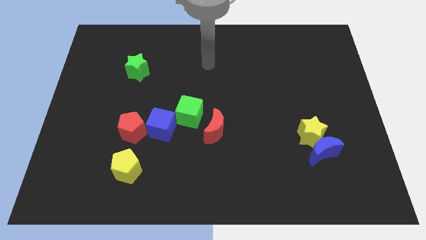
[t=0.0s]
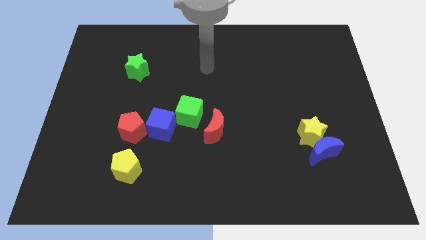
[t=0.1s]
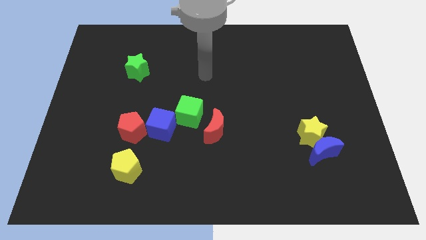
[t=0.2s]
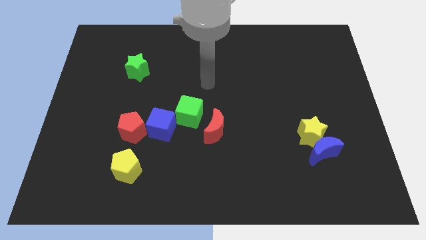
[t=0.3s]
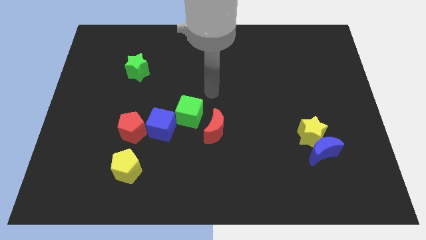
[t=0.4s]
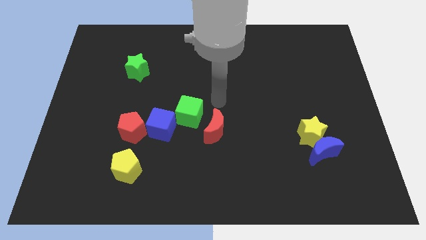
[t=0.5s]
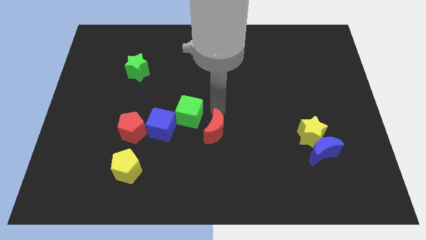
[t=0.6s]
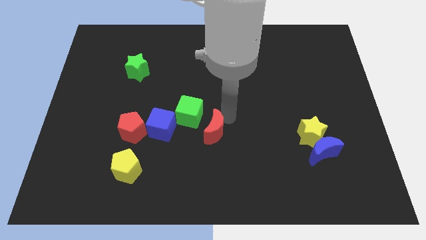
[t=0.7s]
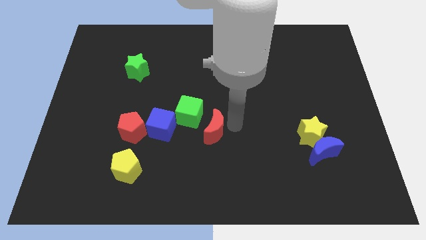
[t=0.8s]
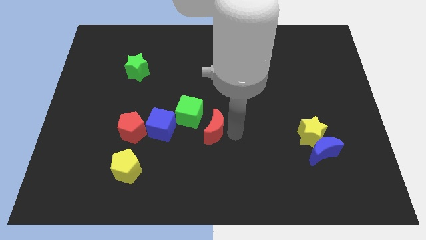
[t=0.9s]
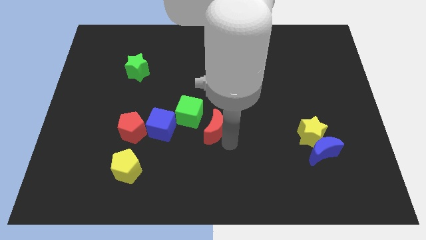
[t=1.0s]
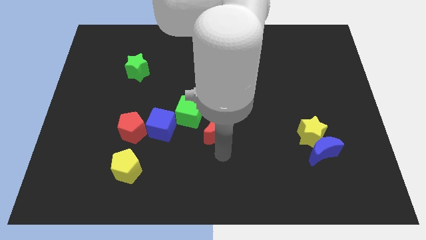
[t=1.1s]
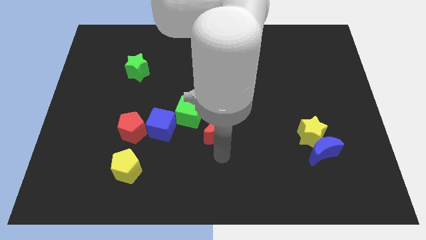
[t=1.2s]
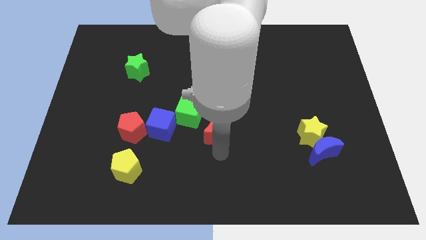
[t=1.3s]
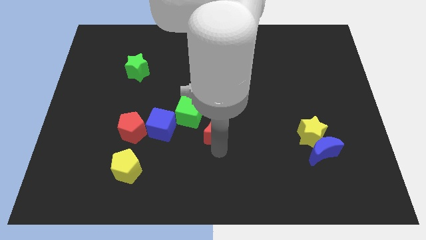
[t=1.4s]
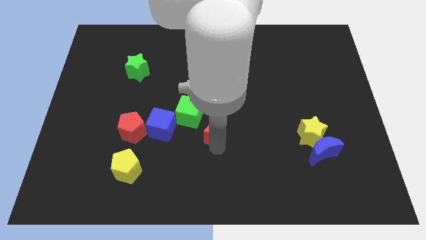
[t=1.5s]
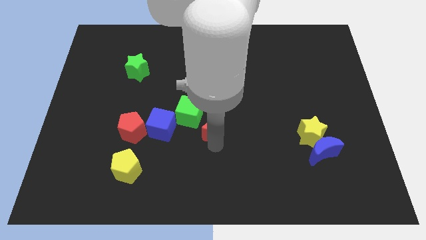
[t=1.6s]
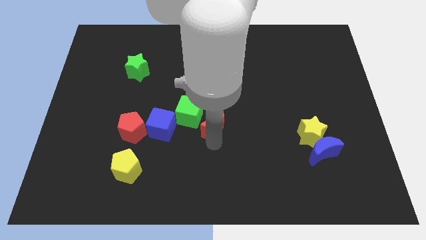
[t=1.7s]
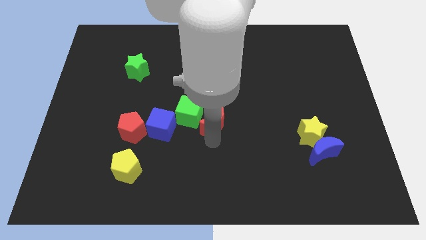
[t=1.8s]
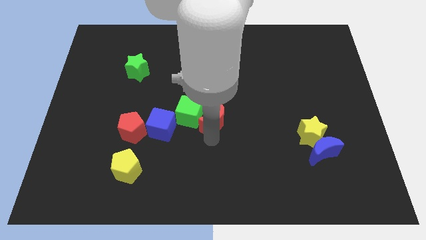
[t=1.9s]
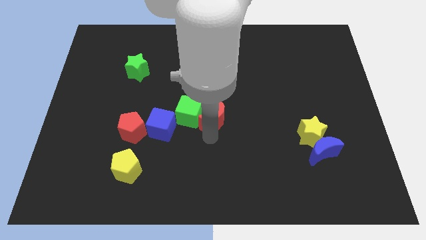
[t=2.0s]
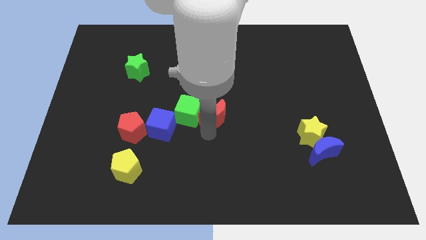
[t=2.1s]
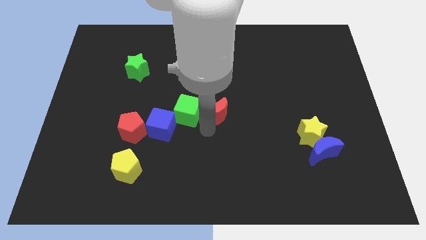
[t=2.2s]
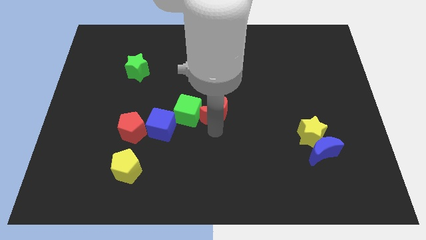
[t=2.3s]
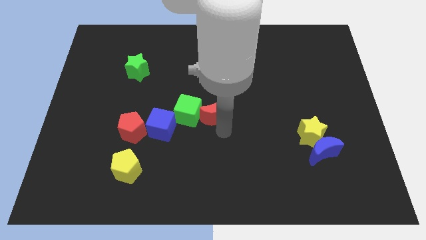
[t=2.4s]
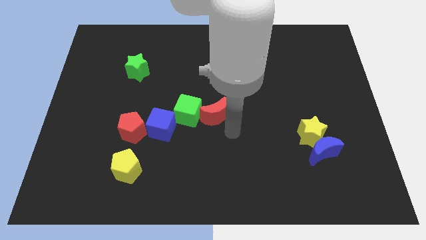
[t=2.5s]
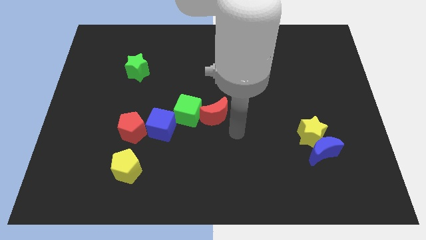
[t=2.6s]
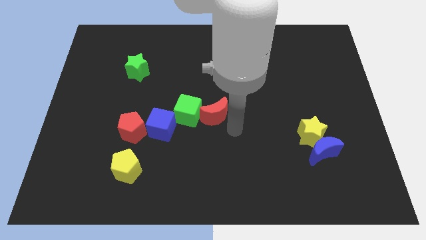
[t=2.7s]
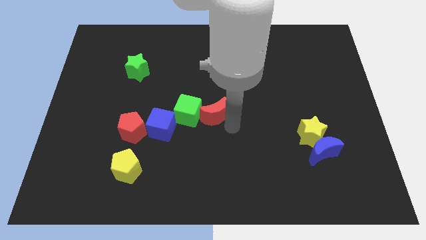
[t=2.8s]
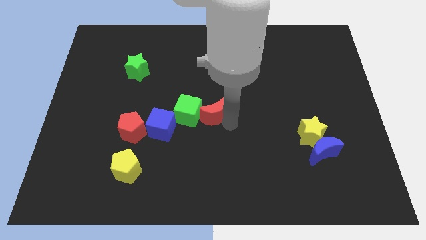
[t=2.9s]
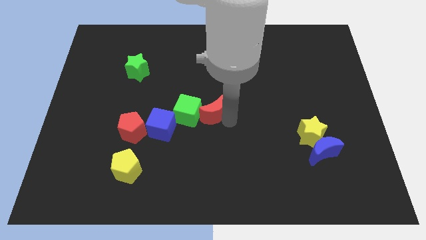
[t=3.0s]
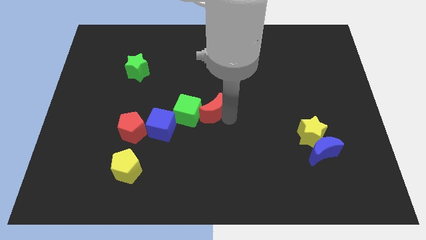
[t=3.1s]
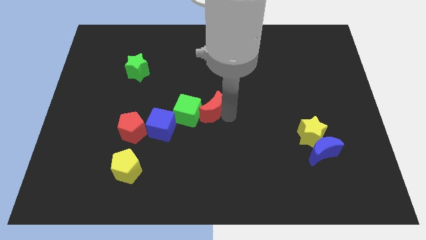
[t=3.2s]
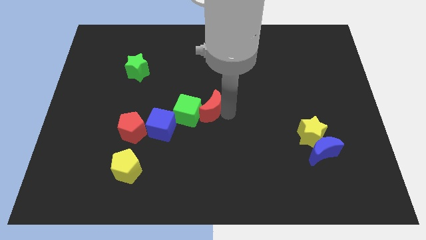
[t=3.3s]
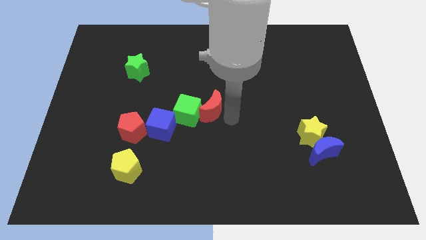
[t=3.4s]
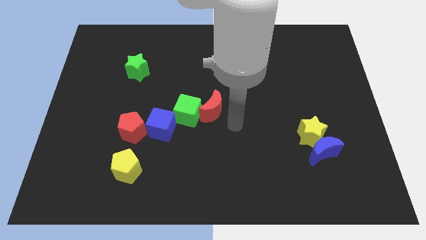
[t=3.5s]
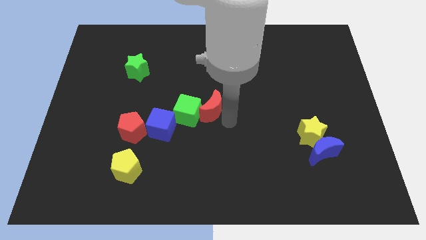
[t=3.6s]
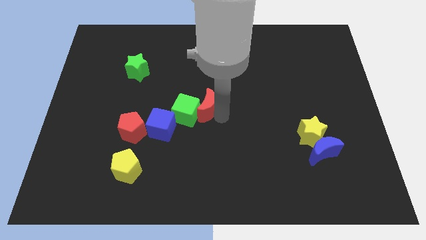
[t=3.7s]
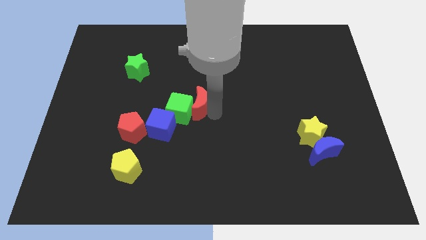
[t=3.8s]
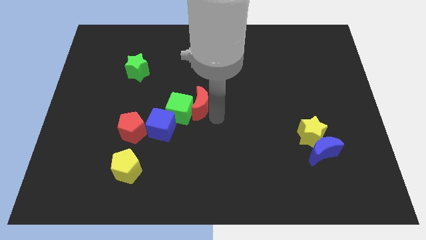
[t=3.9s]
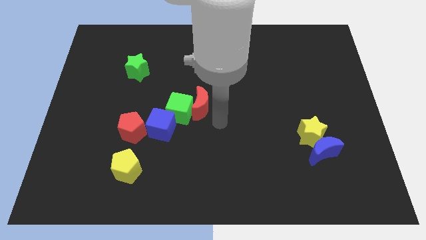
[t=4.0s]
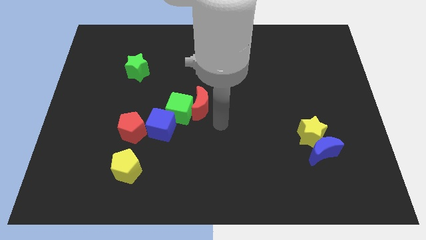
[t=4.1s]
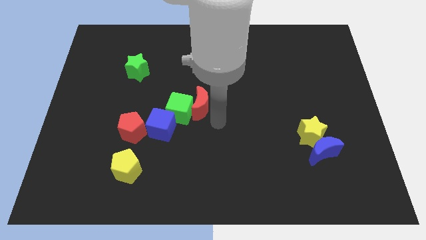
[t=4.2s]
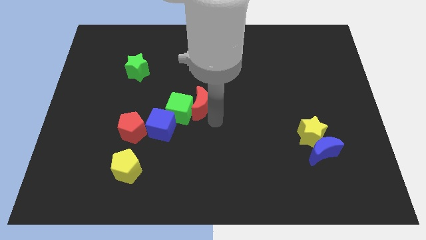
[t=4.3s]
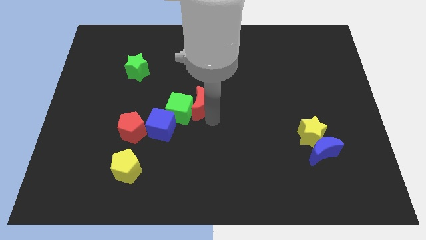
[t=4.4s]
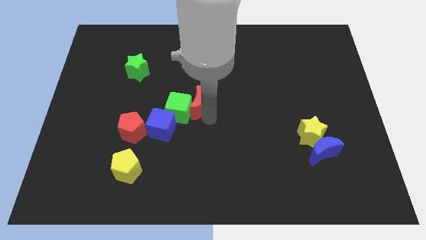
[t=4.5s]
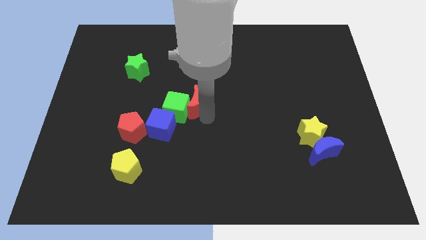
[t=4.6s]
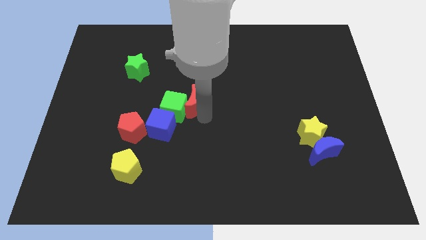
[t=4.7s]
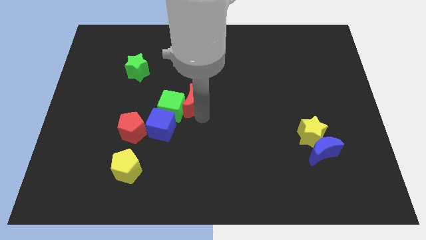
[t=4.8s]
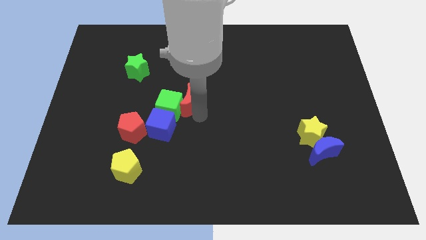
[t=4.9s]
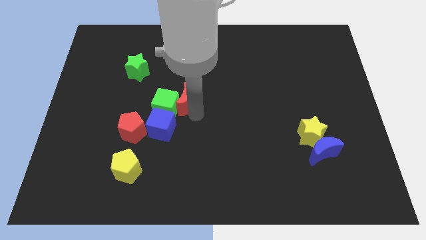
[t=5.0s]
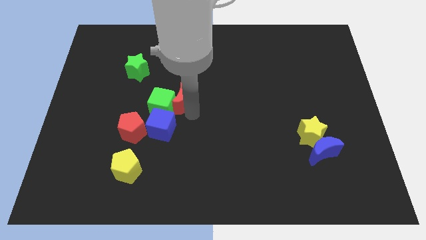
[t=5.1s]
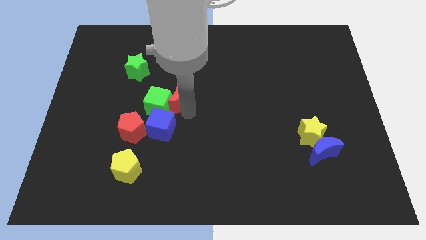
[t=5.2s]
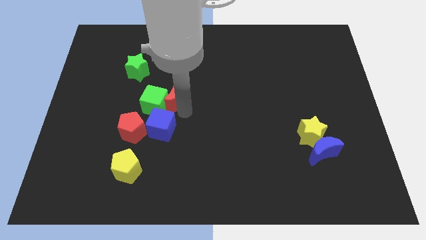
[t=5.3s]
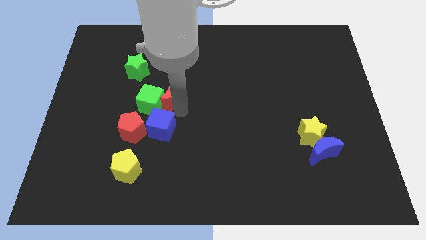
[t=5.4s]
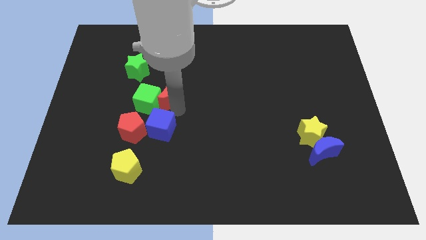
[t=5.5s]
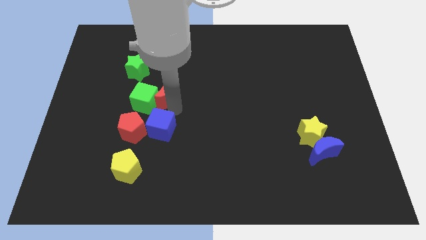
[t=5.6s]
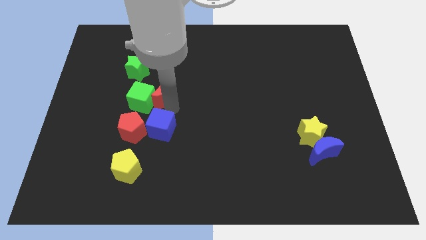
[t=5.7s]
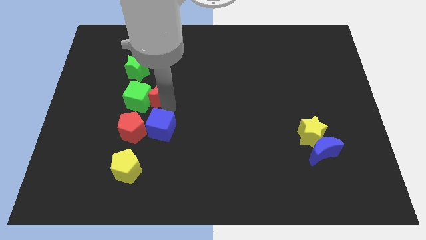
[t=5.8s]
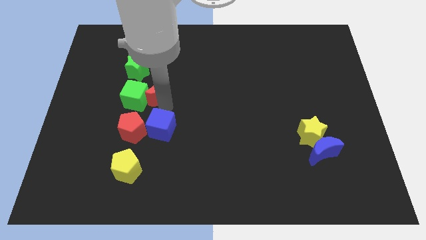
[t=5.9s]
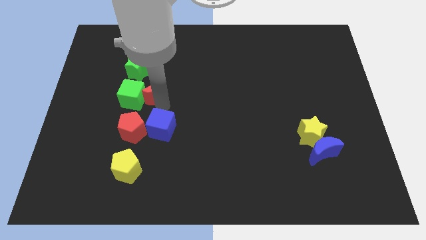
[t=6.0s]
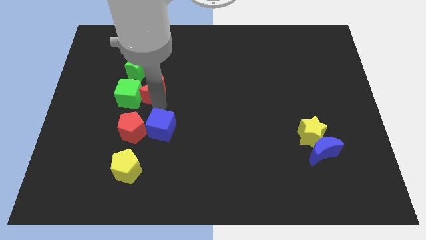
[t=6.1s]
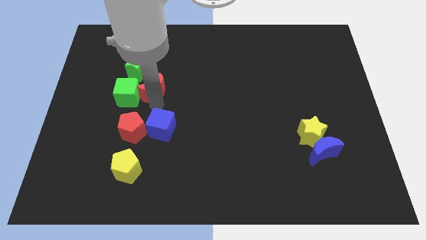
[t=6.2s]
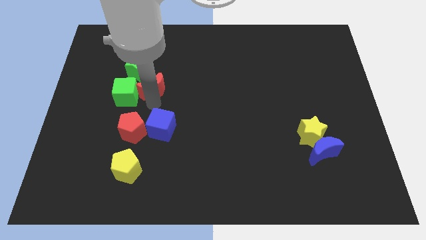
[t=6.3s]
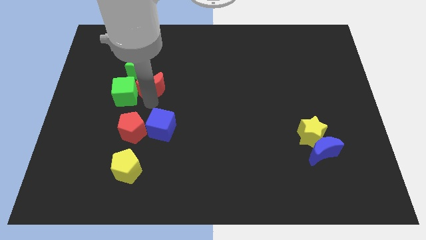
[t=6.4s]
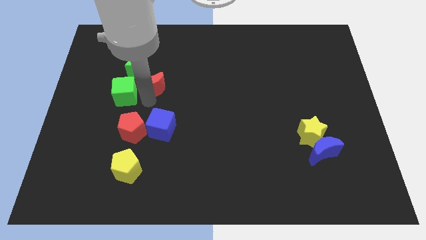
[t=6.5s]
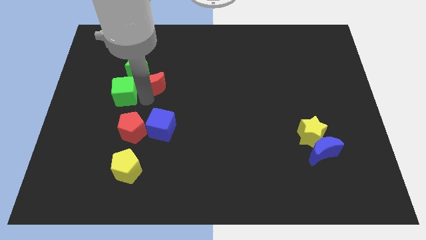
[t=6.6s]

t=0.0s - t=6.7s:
move the red moon upwards and left diagonally

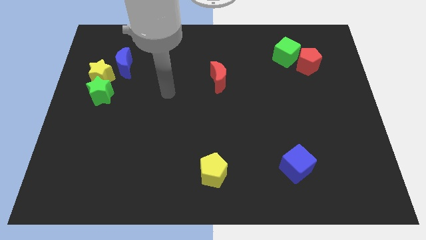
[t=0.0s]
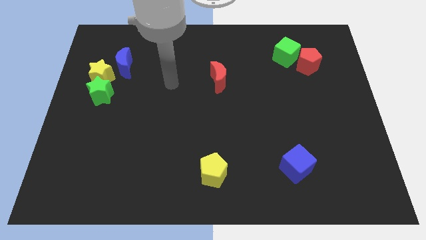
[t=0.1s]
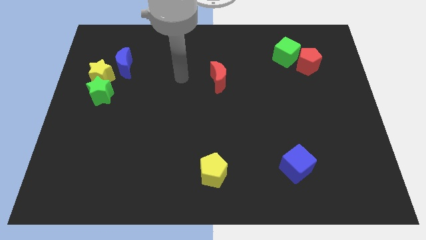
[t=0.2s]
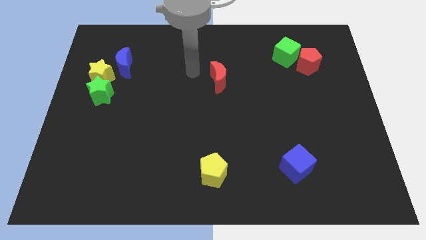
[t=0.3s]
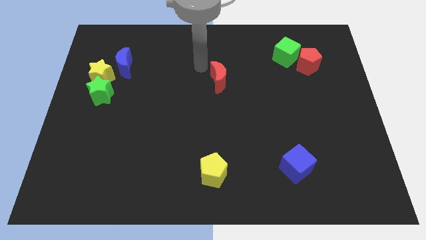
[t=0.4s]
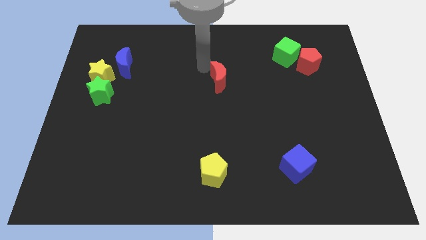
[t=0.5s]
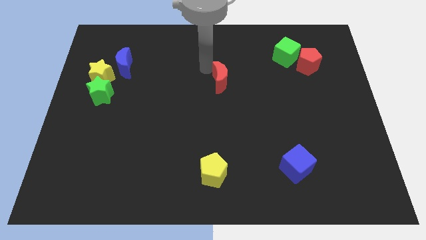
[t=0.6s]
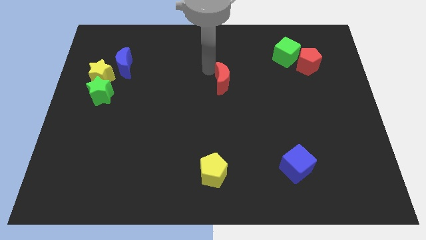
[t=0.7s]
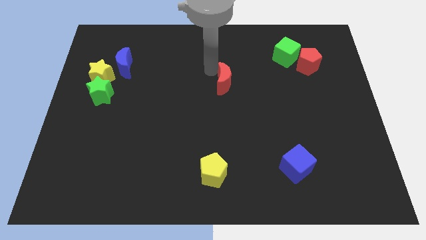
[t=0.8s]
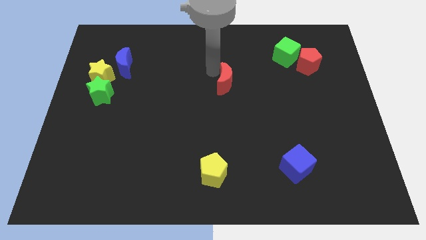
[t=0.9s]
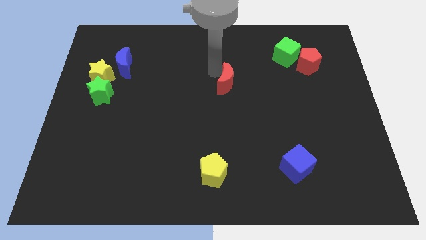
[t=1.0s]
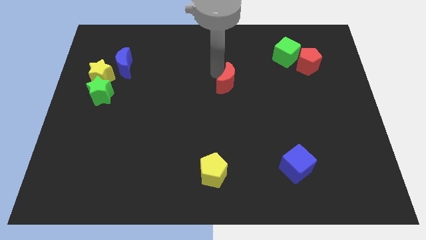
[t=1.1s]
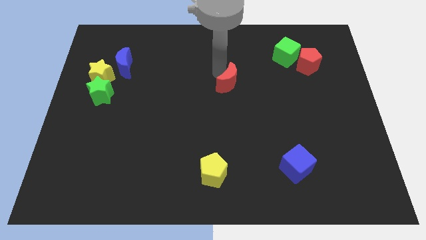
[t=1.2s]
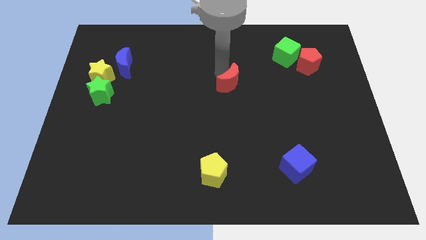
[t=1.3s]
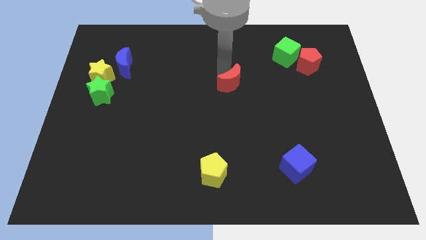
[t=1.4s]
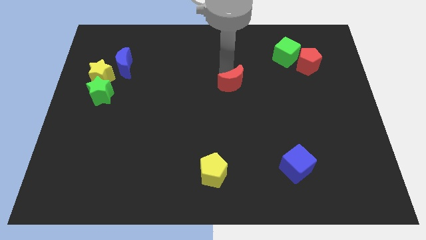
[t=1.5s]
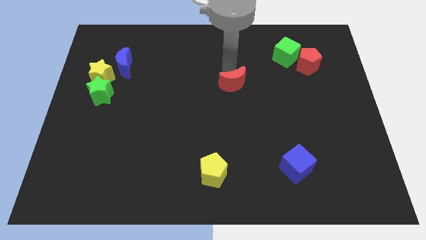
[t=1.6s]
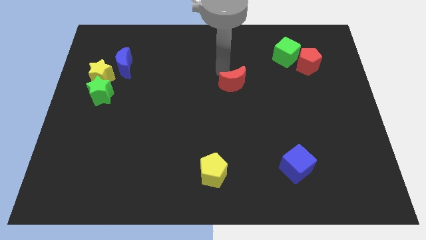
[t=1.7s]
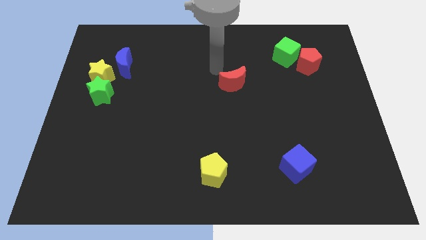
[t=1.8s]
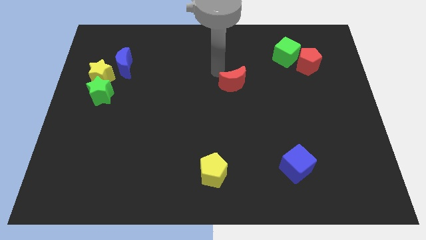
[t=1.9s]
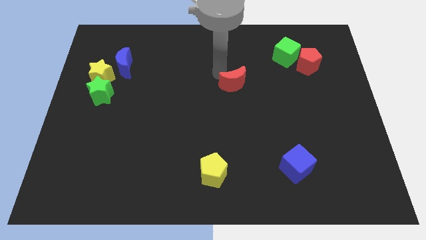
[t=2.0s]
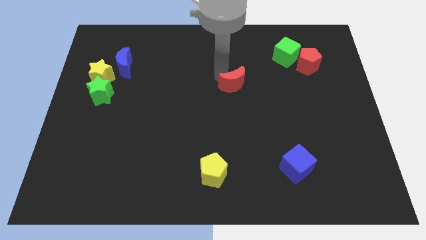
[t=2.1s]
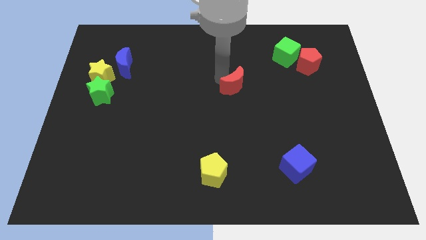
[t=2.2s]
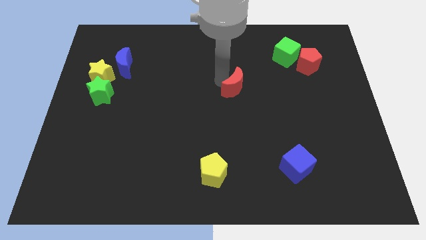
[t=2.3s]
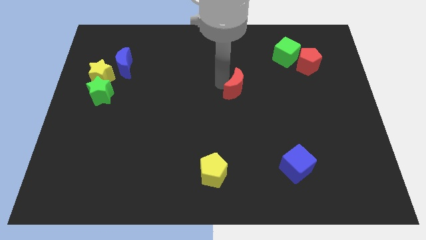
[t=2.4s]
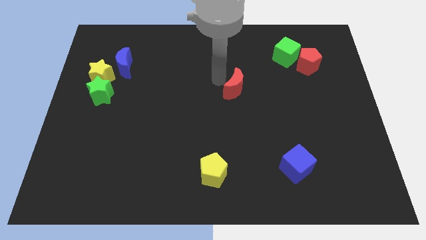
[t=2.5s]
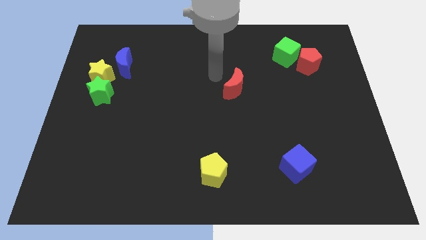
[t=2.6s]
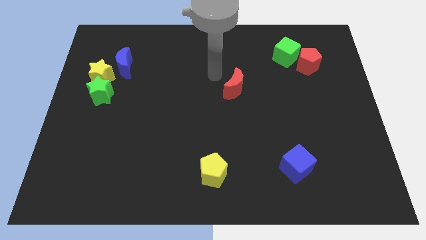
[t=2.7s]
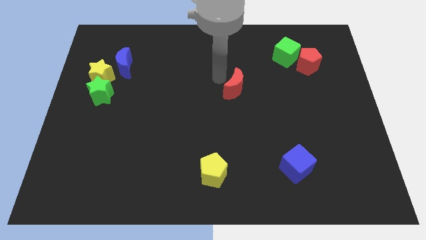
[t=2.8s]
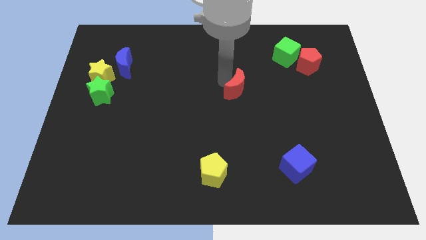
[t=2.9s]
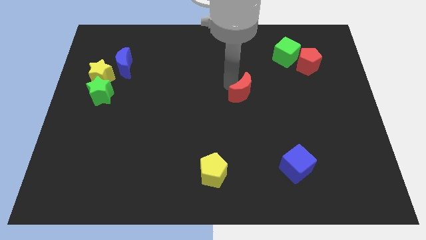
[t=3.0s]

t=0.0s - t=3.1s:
push the red moon somewhat downwards and then right
